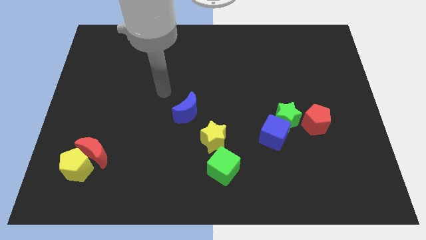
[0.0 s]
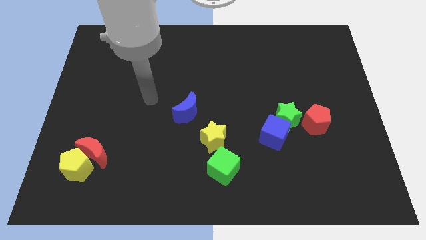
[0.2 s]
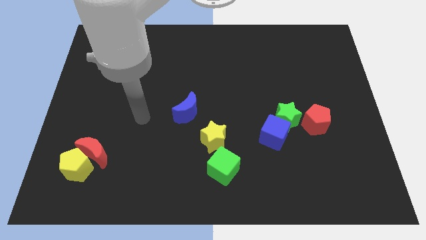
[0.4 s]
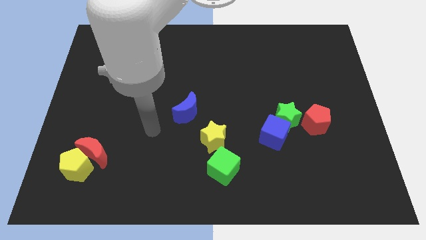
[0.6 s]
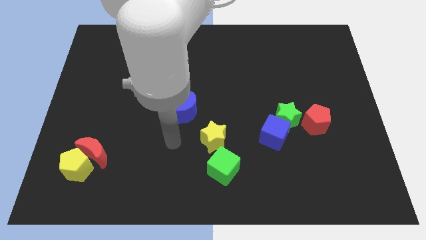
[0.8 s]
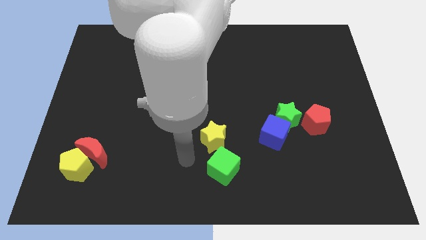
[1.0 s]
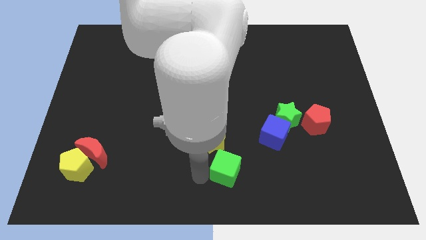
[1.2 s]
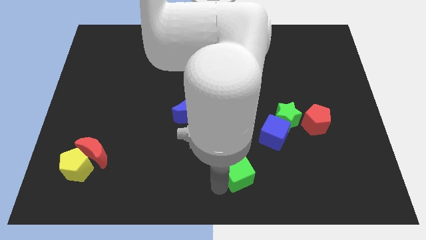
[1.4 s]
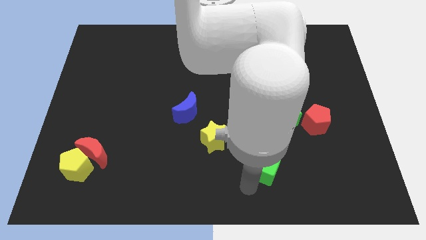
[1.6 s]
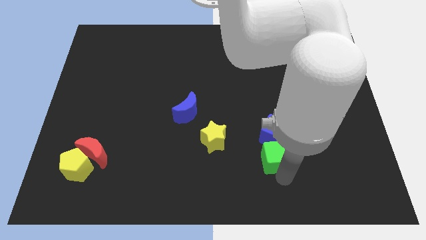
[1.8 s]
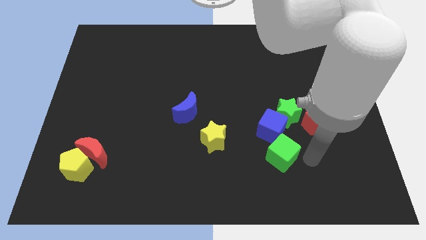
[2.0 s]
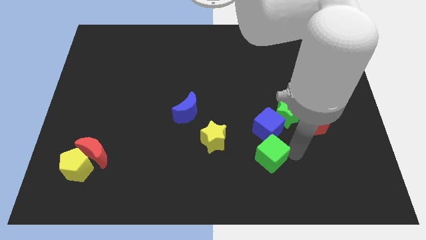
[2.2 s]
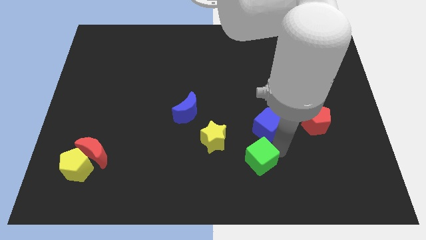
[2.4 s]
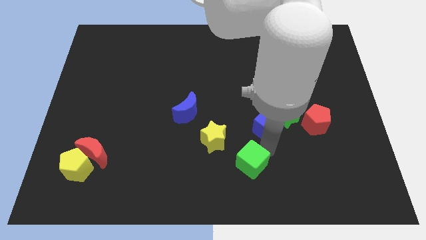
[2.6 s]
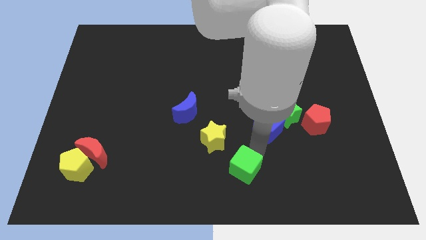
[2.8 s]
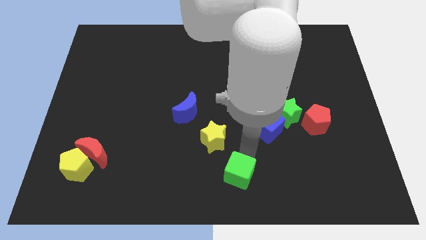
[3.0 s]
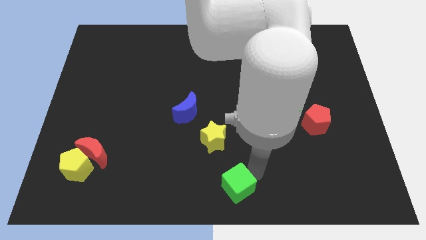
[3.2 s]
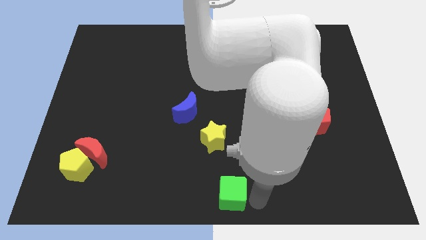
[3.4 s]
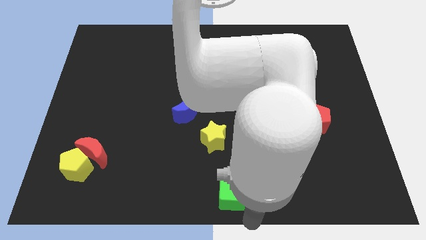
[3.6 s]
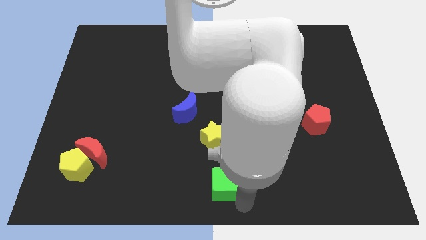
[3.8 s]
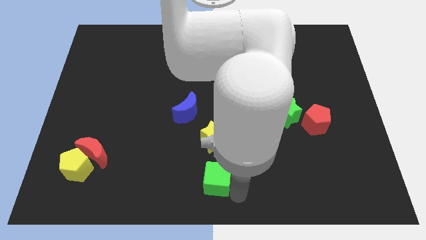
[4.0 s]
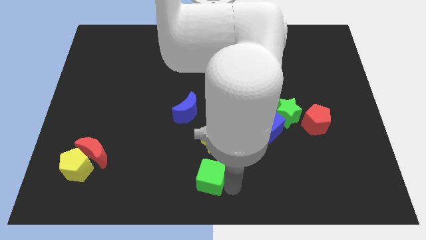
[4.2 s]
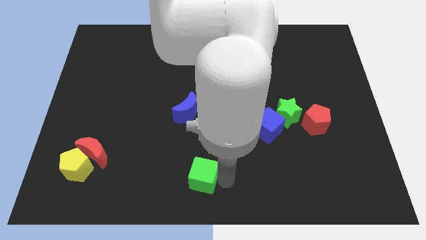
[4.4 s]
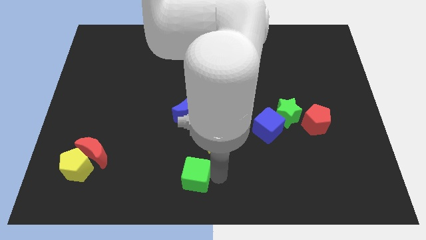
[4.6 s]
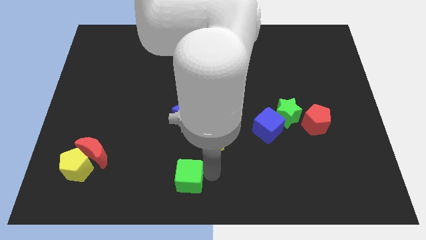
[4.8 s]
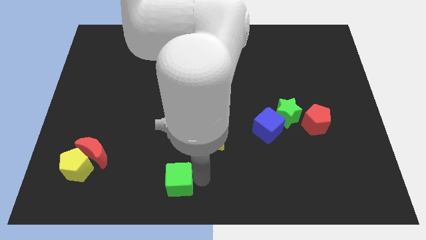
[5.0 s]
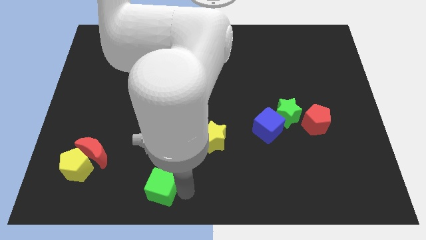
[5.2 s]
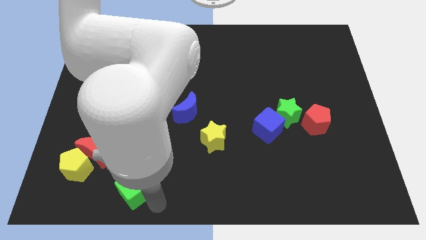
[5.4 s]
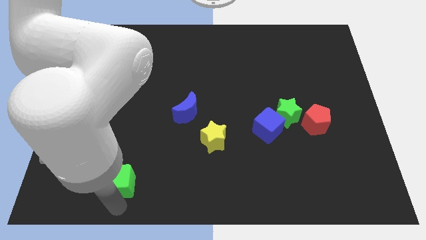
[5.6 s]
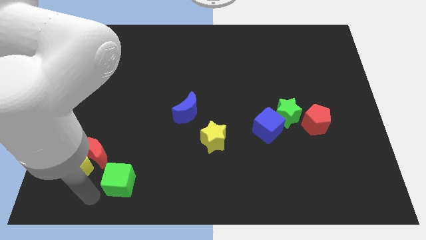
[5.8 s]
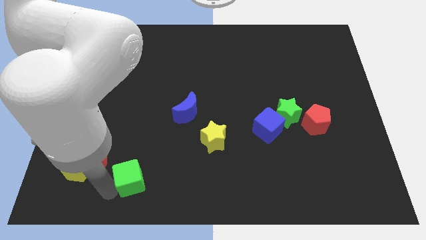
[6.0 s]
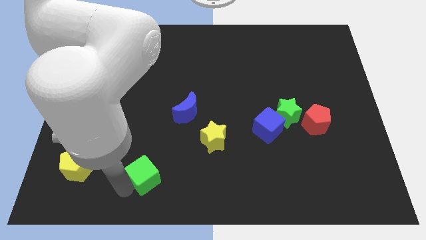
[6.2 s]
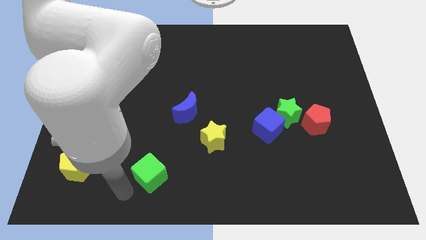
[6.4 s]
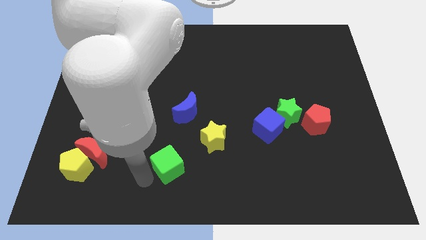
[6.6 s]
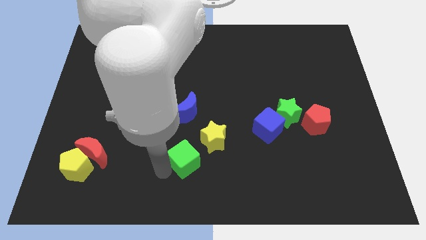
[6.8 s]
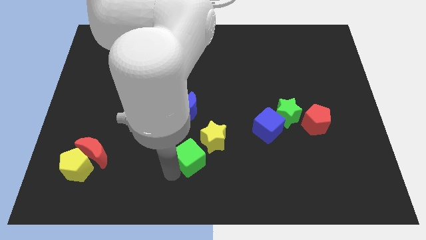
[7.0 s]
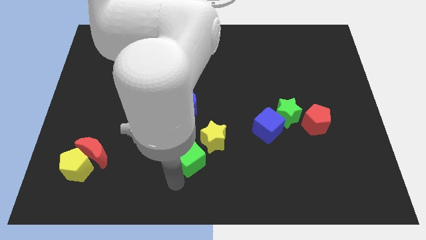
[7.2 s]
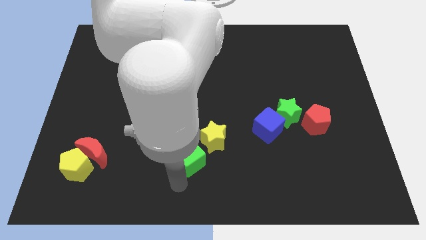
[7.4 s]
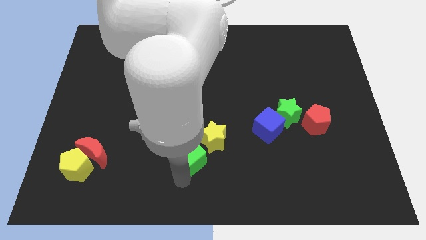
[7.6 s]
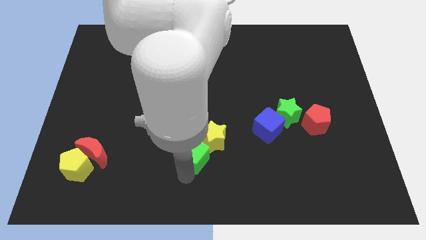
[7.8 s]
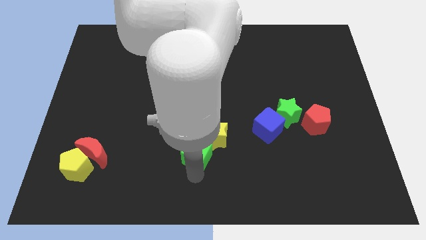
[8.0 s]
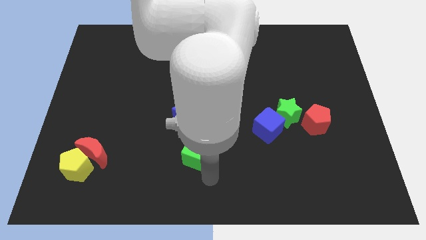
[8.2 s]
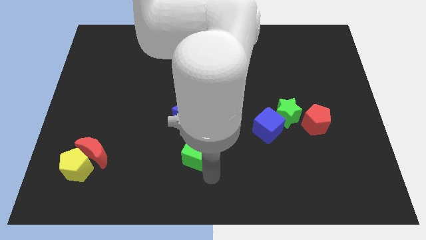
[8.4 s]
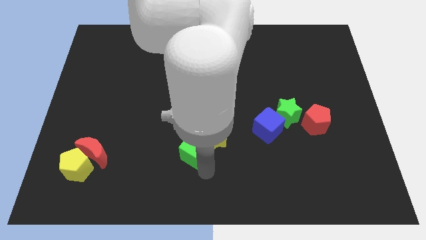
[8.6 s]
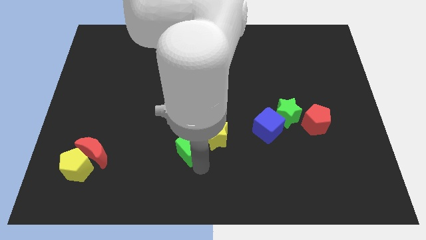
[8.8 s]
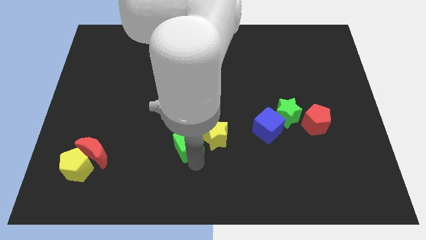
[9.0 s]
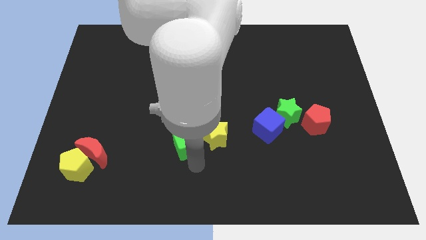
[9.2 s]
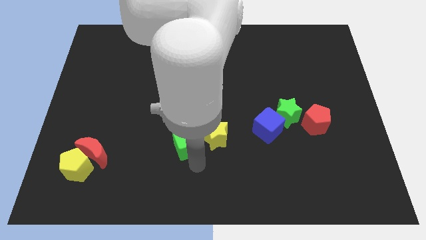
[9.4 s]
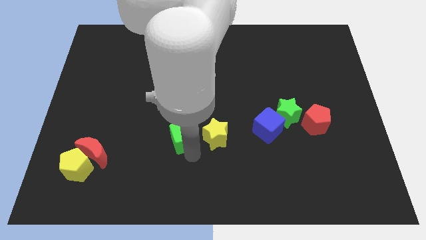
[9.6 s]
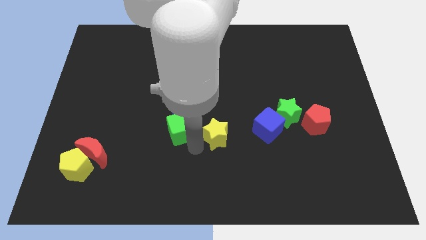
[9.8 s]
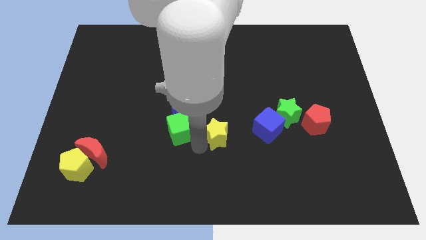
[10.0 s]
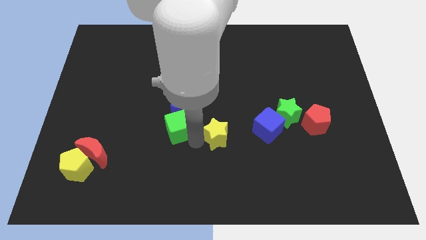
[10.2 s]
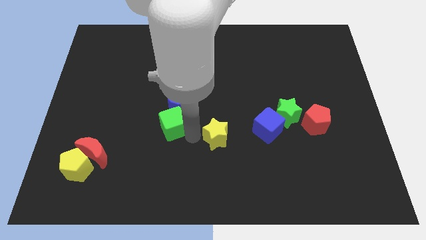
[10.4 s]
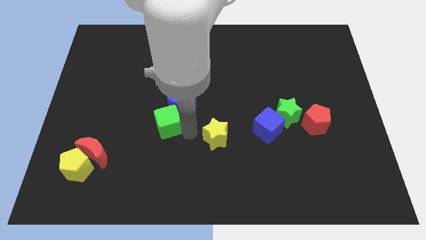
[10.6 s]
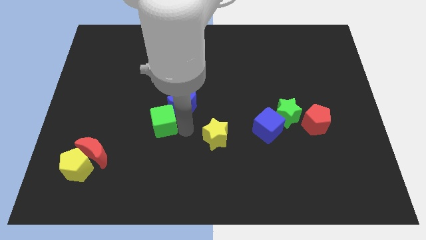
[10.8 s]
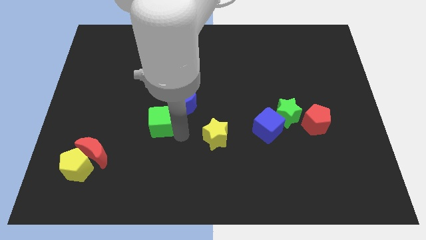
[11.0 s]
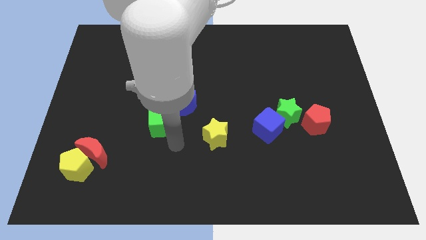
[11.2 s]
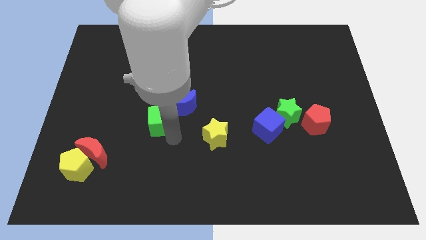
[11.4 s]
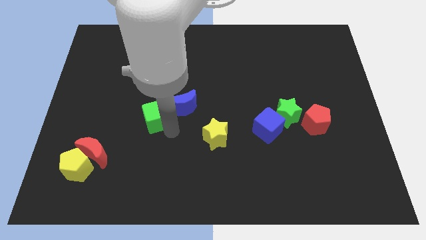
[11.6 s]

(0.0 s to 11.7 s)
slide the green cube upwards and left

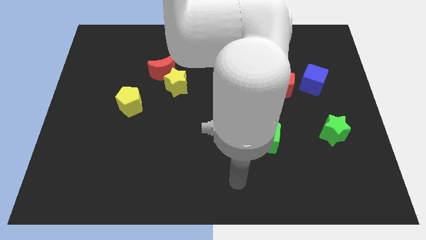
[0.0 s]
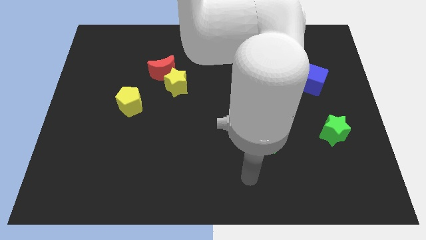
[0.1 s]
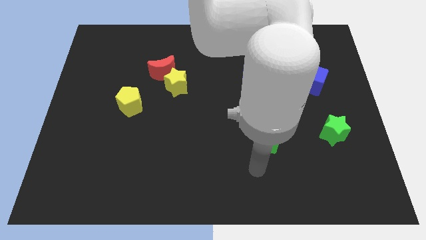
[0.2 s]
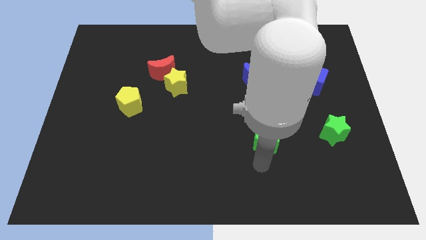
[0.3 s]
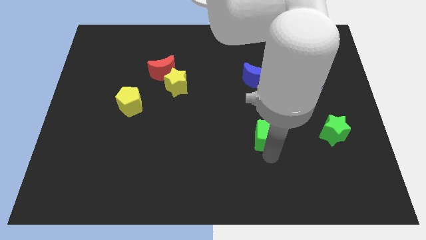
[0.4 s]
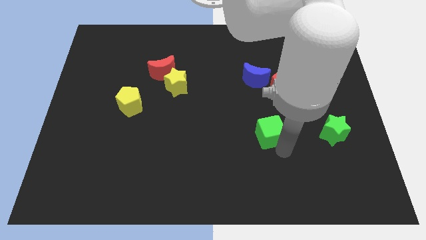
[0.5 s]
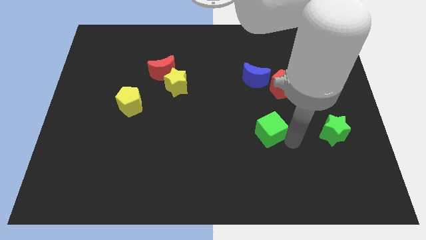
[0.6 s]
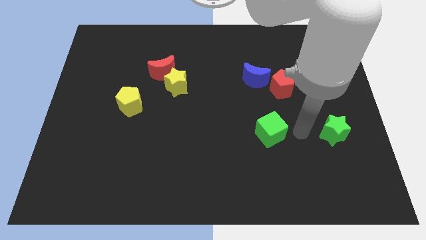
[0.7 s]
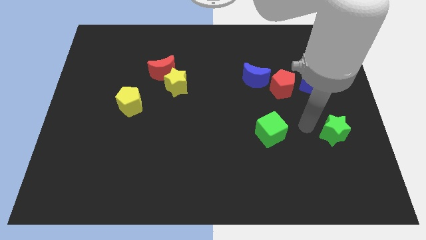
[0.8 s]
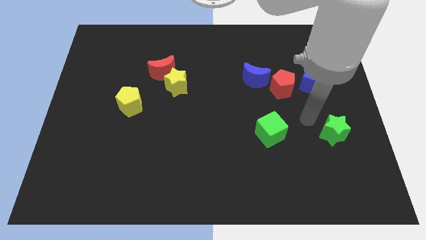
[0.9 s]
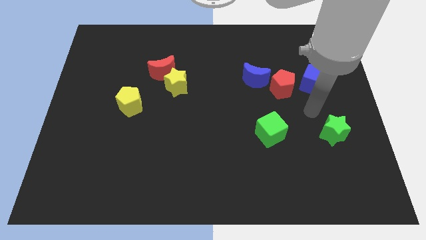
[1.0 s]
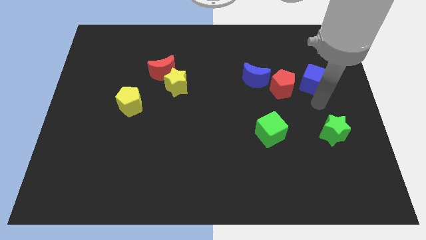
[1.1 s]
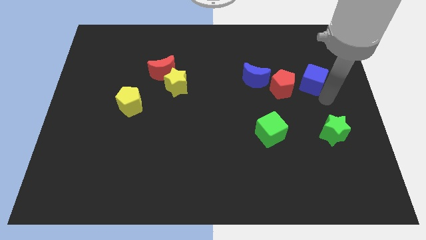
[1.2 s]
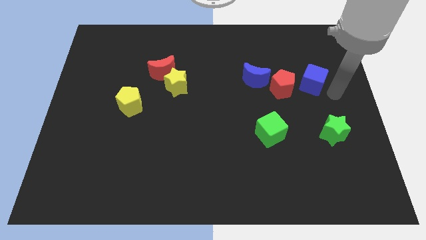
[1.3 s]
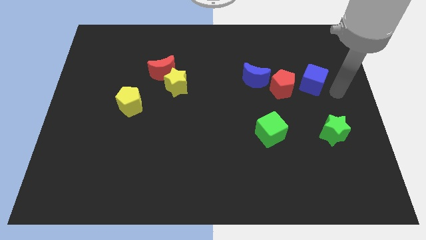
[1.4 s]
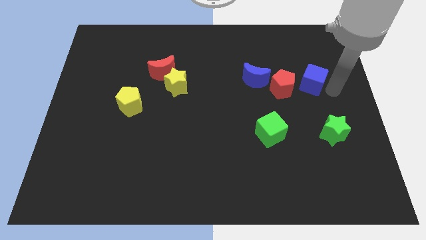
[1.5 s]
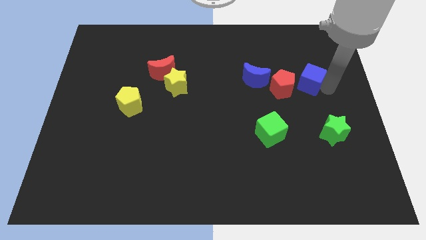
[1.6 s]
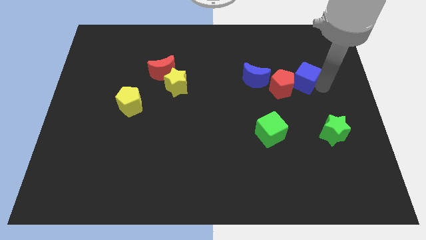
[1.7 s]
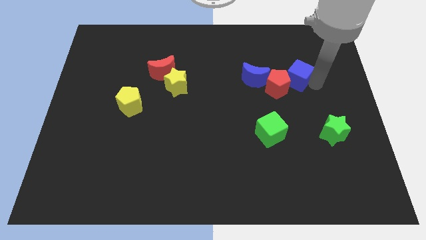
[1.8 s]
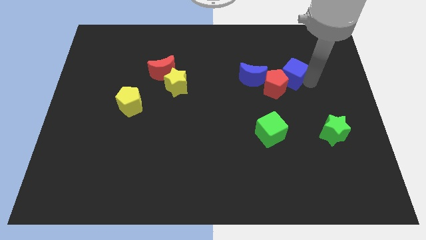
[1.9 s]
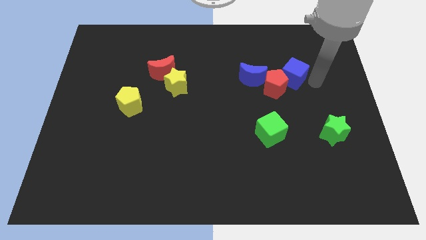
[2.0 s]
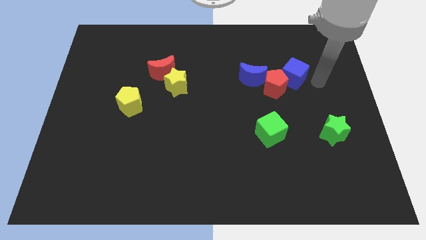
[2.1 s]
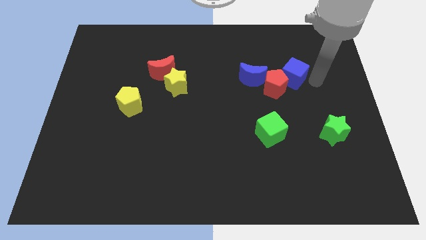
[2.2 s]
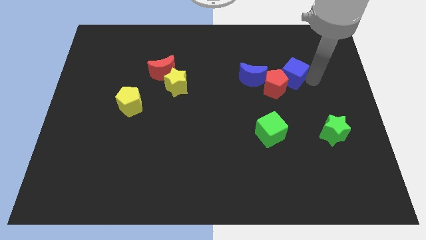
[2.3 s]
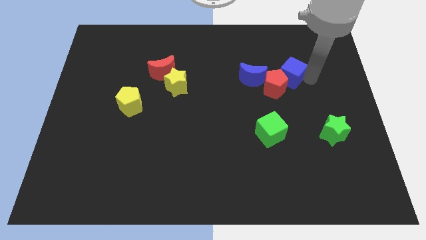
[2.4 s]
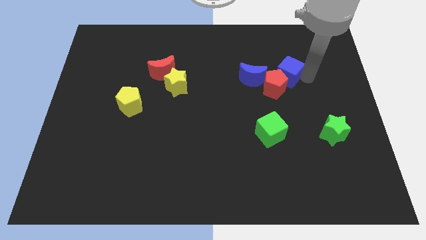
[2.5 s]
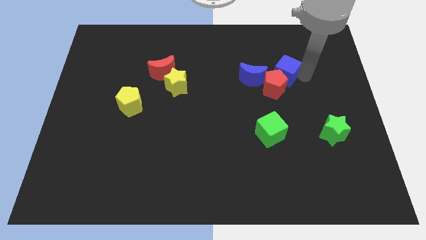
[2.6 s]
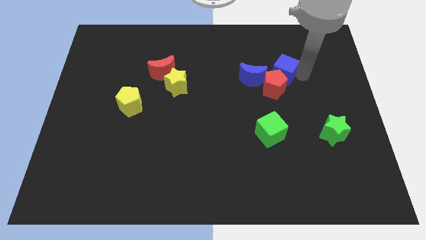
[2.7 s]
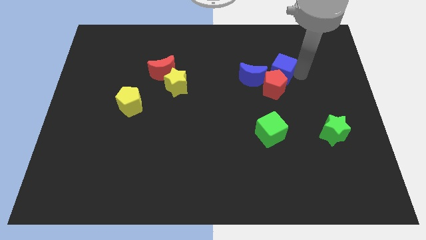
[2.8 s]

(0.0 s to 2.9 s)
slide the blue cube a little to the left
